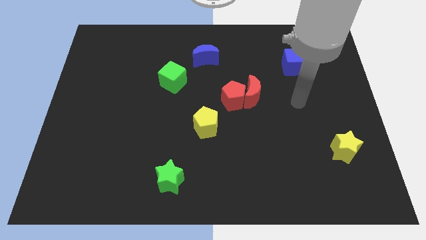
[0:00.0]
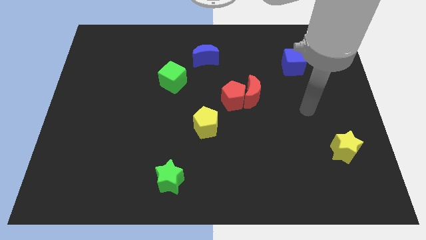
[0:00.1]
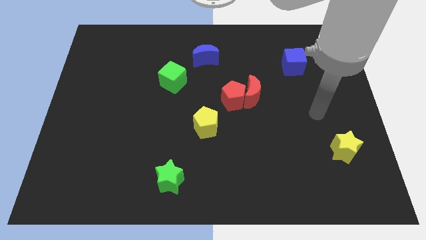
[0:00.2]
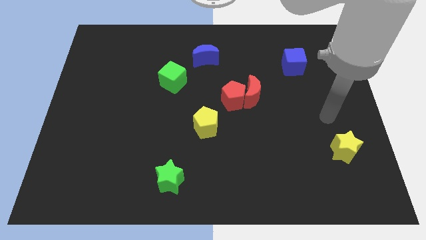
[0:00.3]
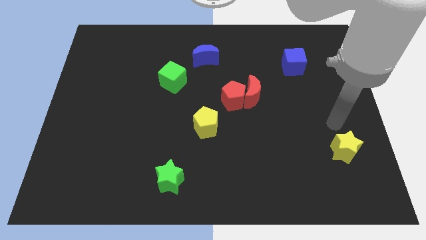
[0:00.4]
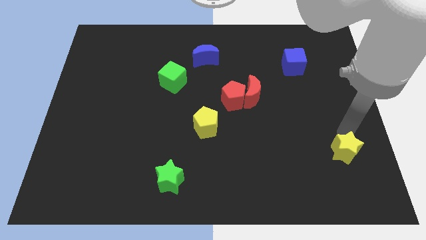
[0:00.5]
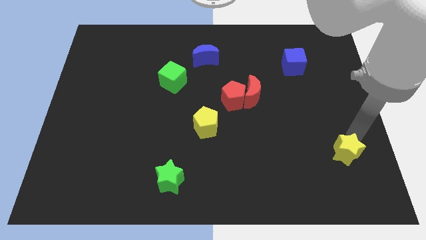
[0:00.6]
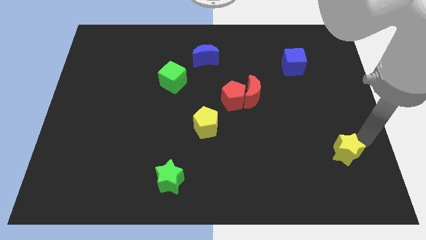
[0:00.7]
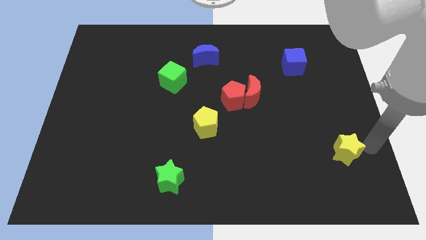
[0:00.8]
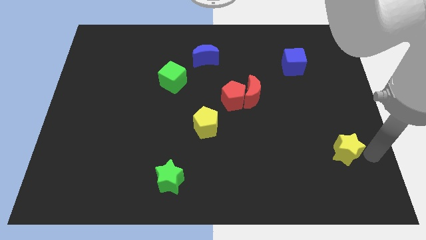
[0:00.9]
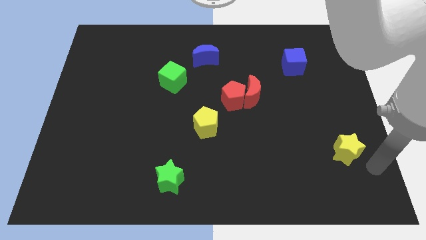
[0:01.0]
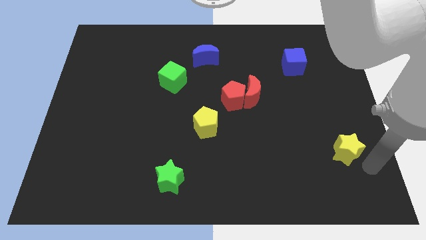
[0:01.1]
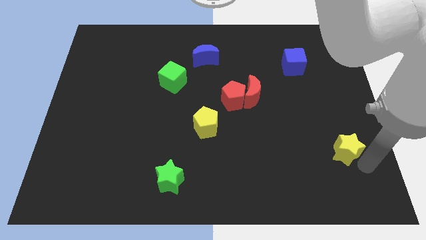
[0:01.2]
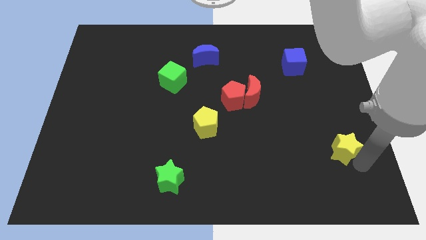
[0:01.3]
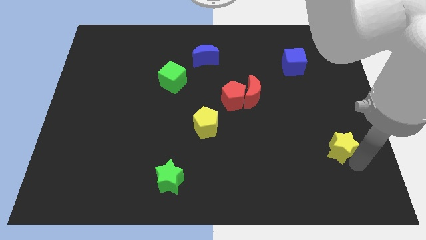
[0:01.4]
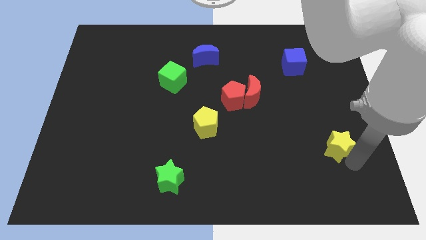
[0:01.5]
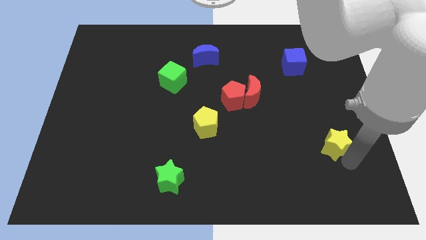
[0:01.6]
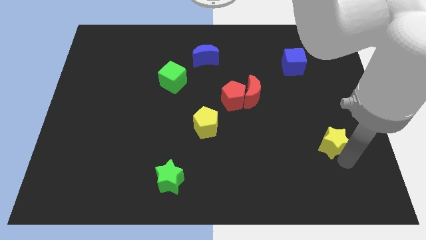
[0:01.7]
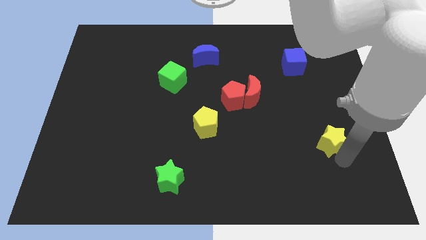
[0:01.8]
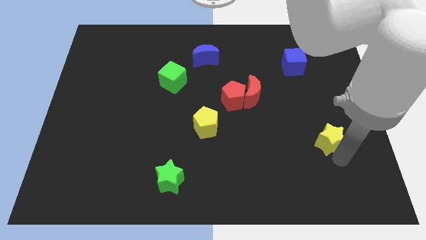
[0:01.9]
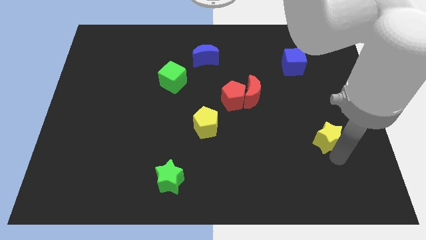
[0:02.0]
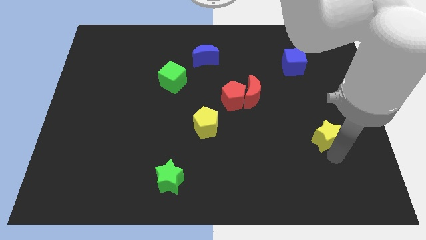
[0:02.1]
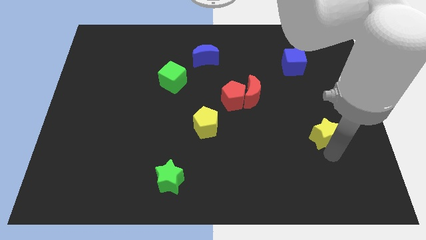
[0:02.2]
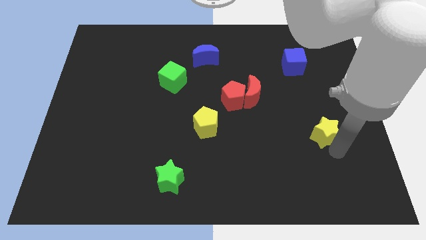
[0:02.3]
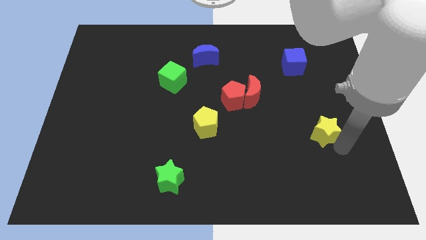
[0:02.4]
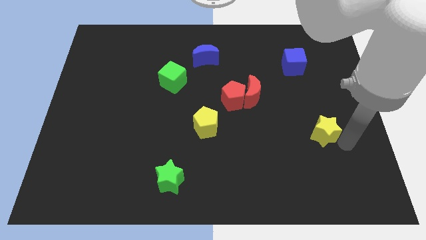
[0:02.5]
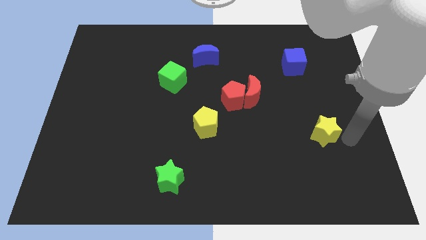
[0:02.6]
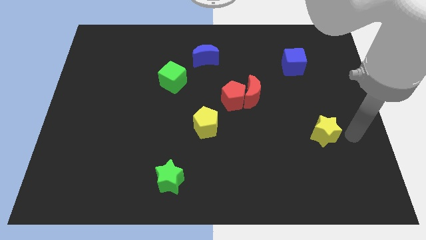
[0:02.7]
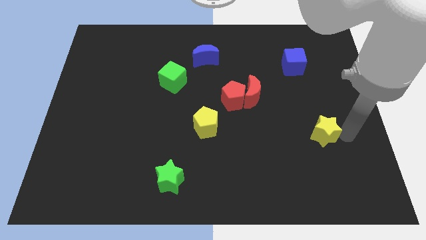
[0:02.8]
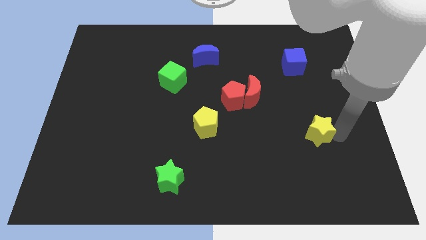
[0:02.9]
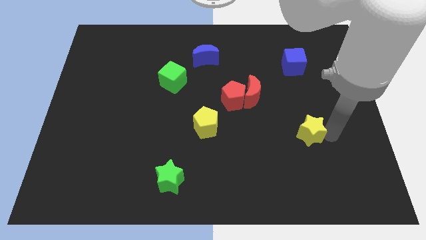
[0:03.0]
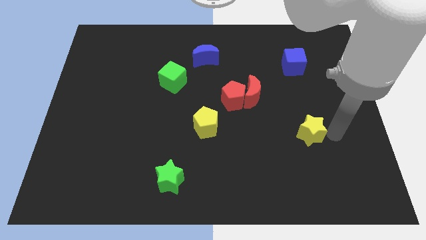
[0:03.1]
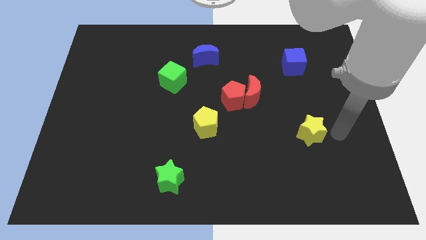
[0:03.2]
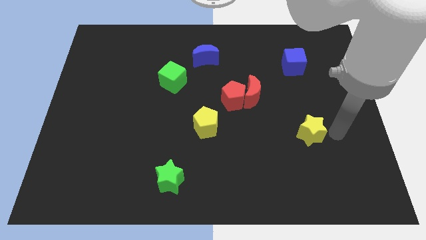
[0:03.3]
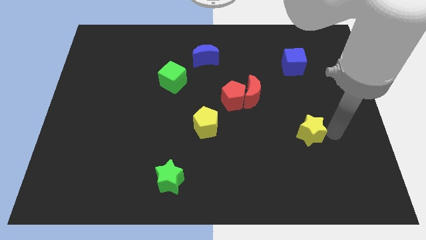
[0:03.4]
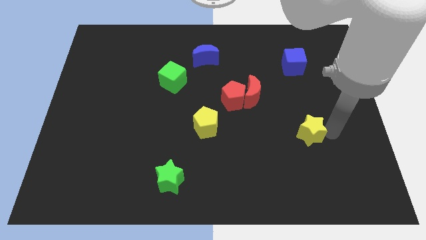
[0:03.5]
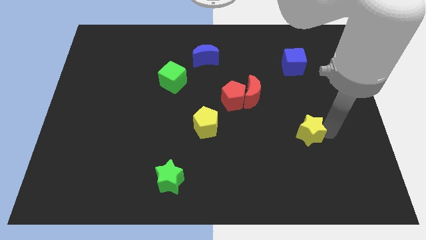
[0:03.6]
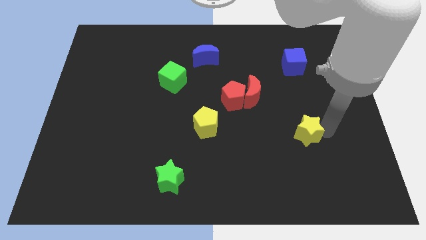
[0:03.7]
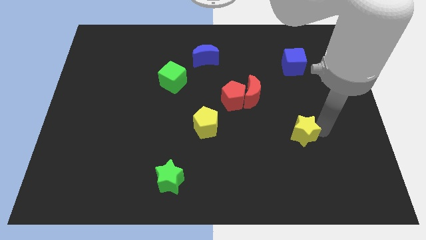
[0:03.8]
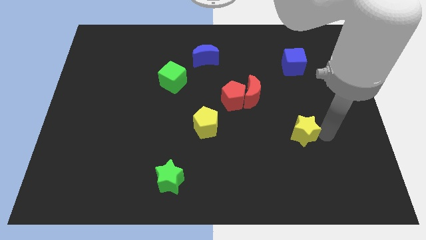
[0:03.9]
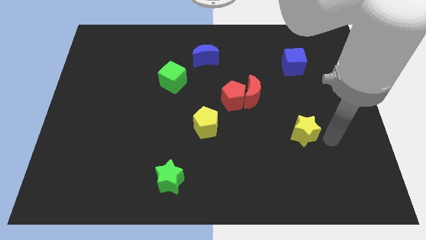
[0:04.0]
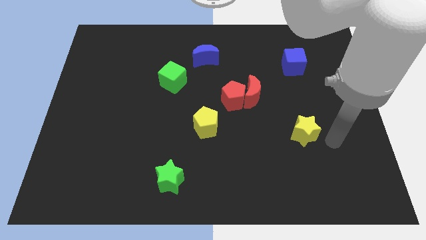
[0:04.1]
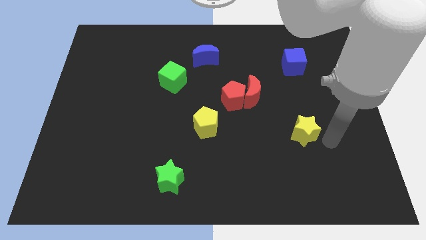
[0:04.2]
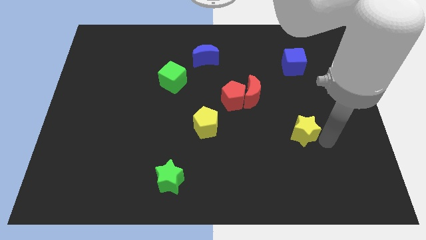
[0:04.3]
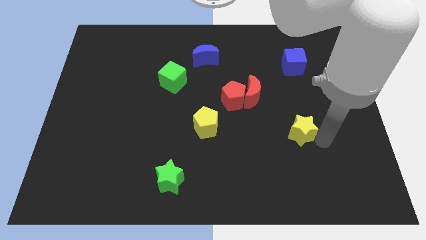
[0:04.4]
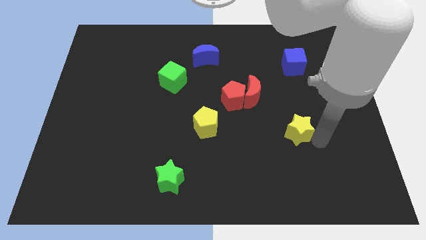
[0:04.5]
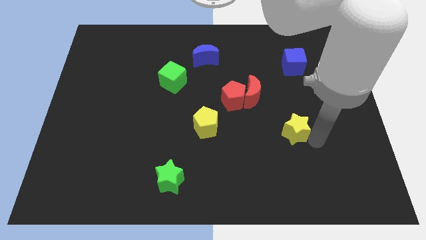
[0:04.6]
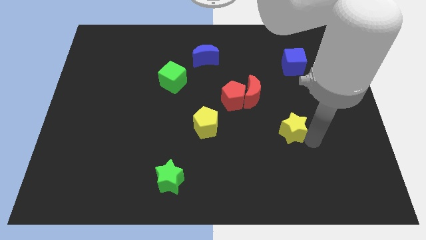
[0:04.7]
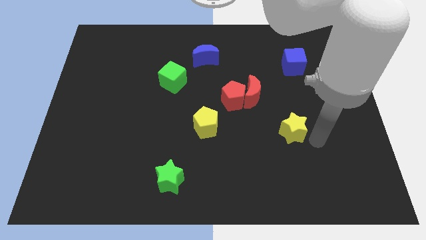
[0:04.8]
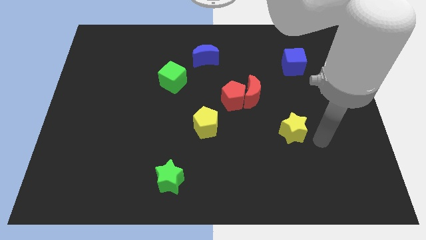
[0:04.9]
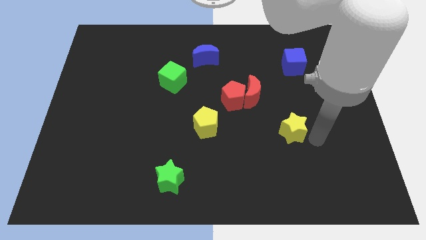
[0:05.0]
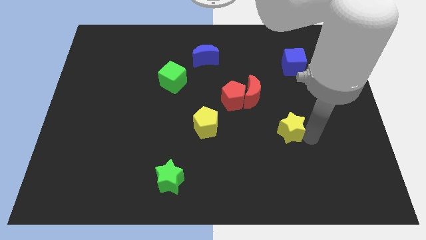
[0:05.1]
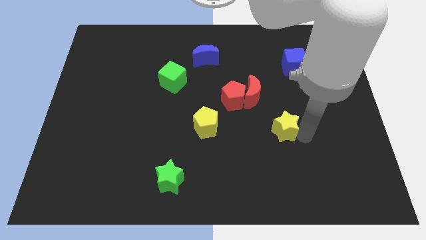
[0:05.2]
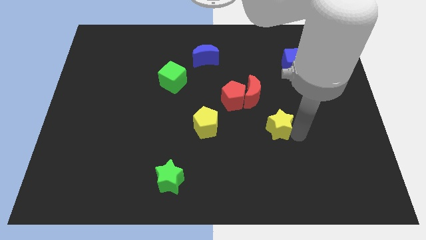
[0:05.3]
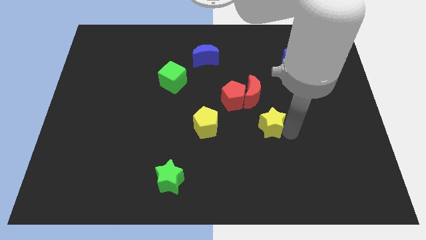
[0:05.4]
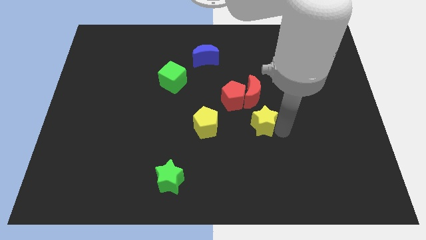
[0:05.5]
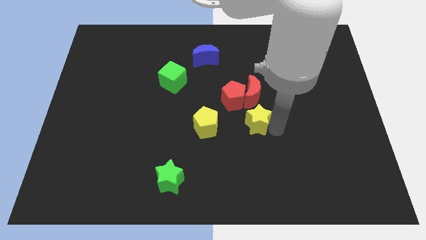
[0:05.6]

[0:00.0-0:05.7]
put the yellow star to the center of the board

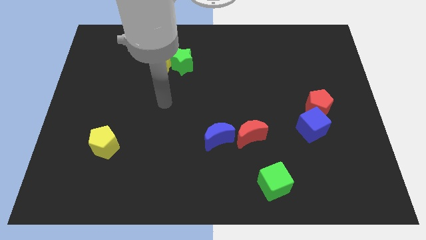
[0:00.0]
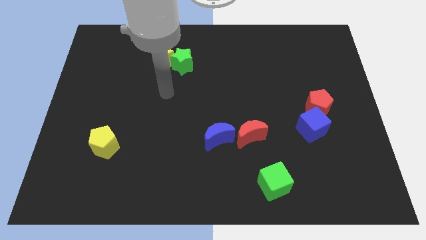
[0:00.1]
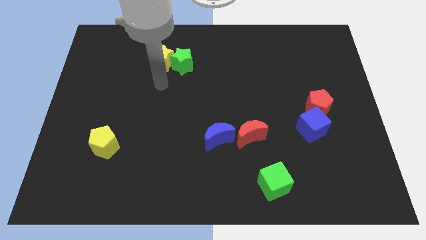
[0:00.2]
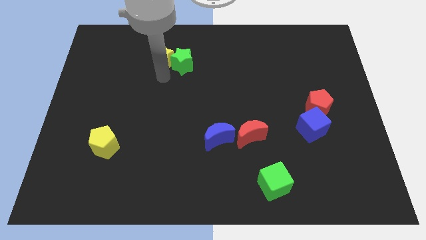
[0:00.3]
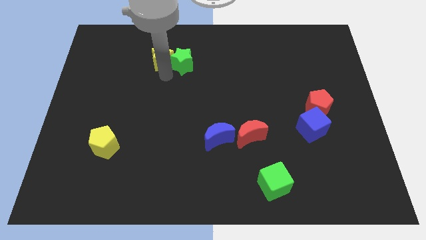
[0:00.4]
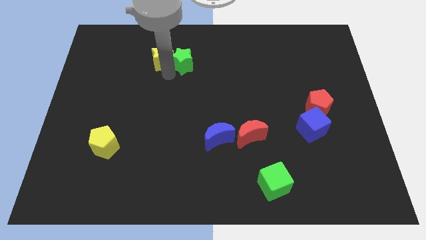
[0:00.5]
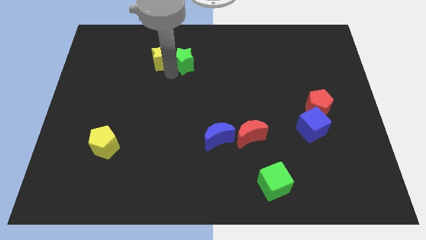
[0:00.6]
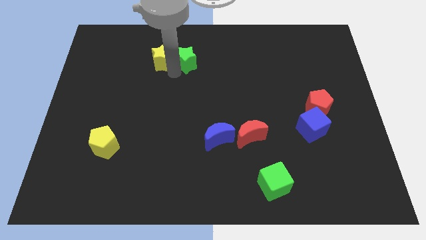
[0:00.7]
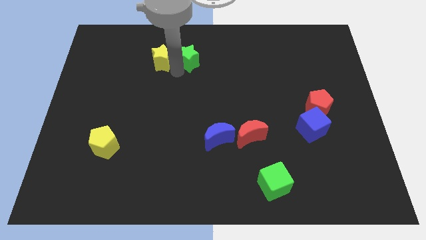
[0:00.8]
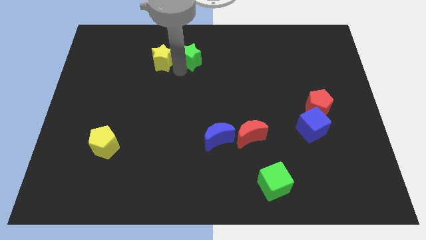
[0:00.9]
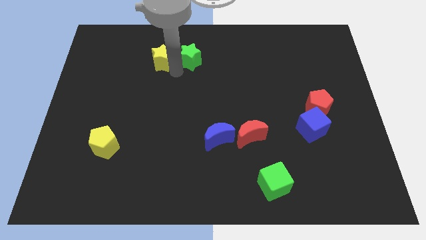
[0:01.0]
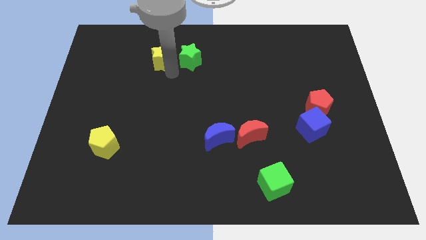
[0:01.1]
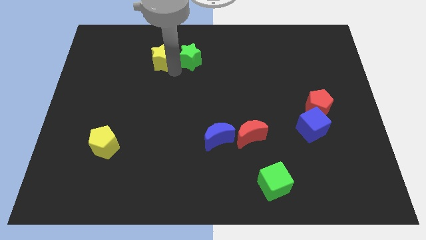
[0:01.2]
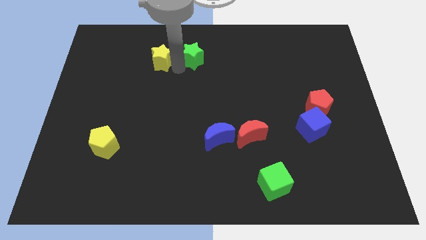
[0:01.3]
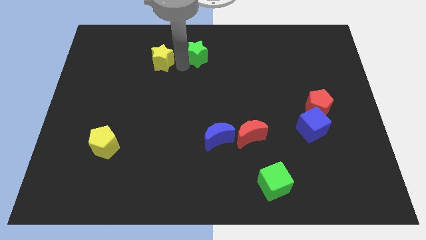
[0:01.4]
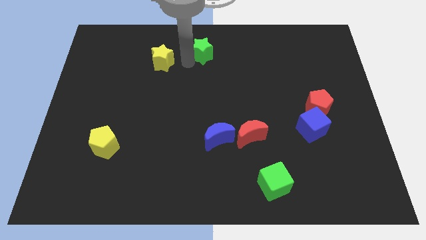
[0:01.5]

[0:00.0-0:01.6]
put the green star to the towards your base
